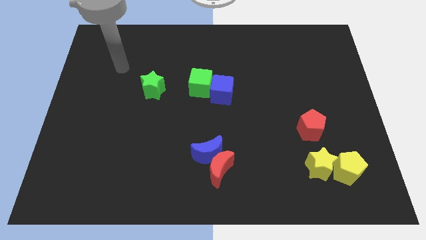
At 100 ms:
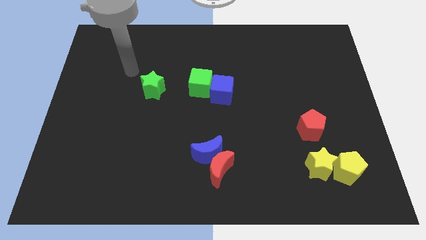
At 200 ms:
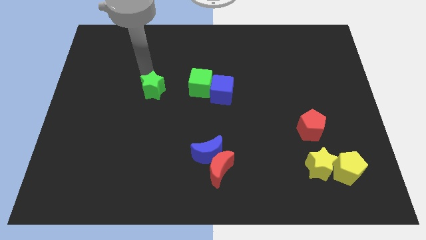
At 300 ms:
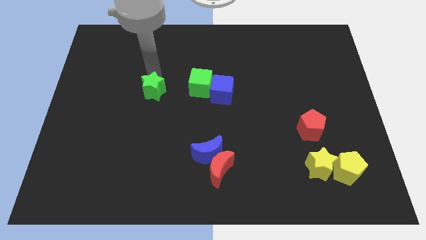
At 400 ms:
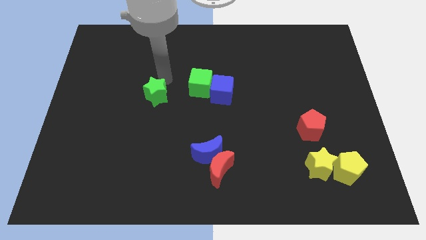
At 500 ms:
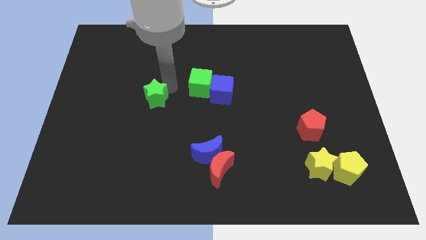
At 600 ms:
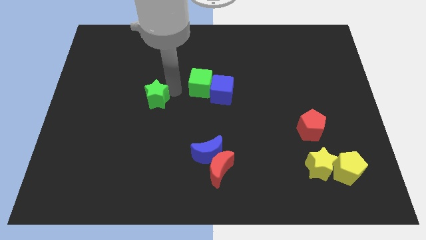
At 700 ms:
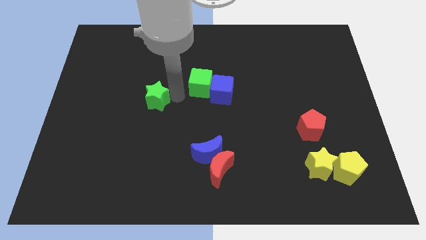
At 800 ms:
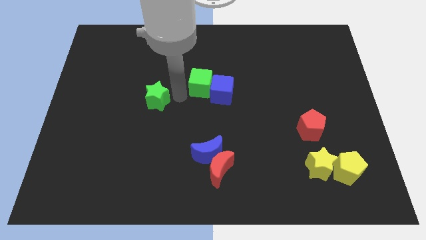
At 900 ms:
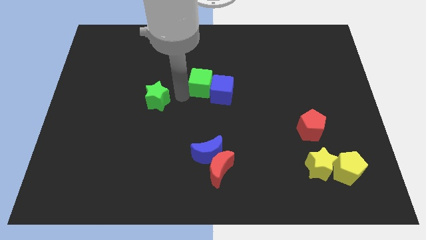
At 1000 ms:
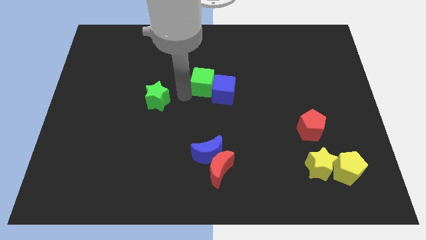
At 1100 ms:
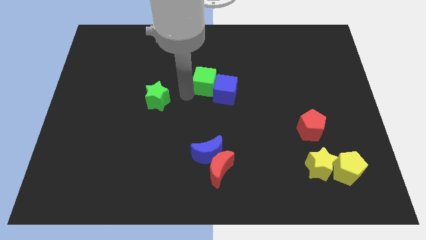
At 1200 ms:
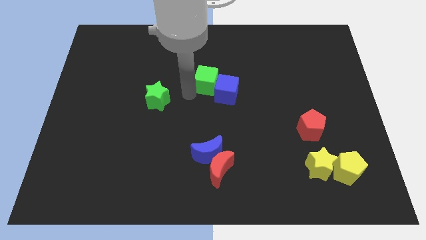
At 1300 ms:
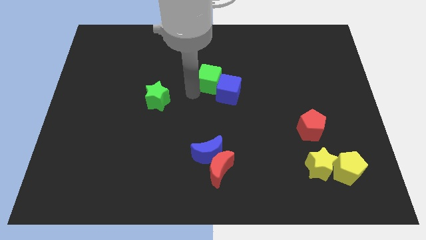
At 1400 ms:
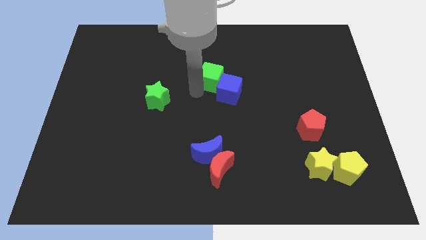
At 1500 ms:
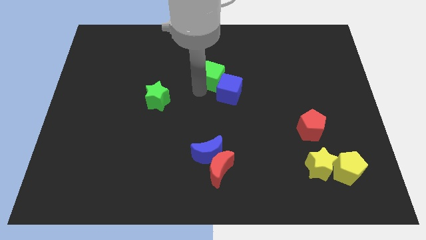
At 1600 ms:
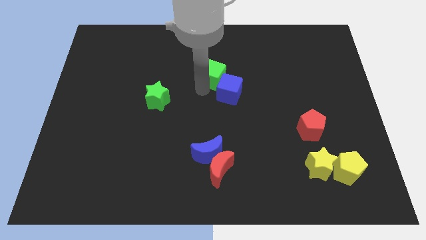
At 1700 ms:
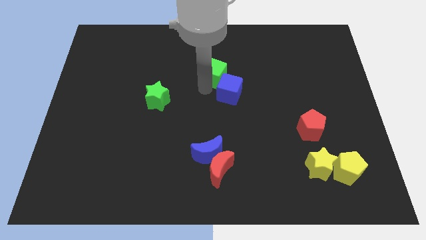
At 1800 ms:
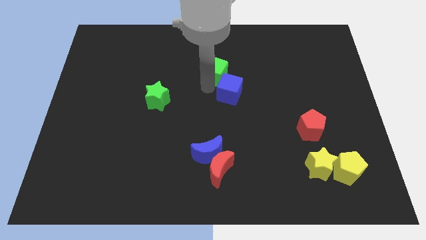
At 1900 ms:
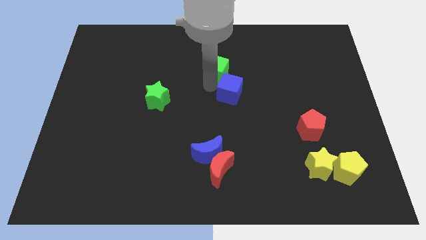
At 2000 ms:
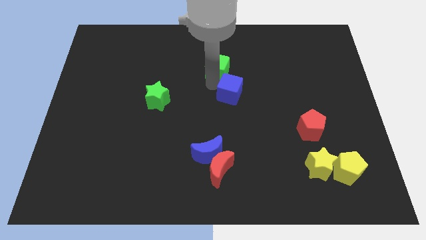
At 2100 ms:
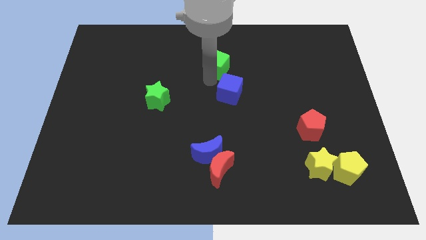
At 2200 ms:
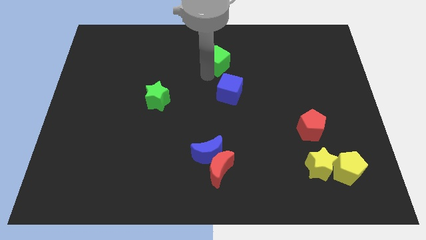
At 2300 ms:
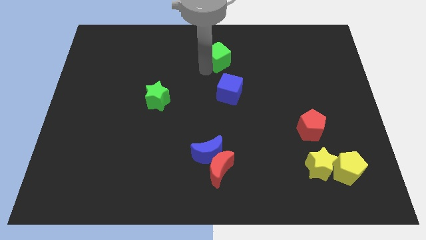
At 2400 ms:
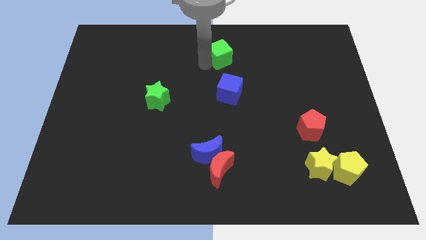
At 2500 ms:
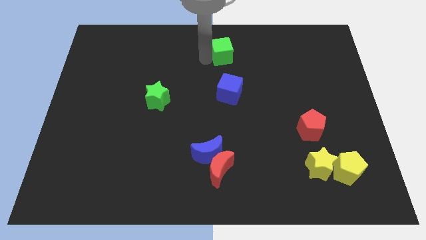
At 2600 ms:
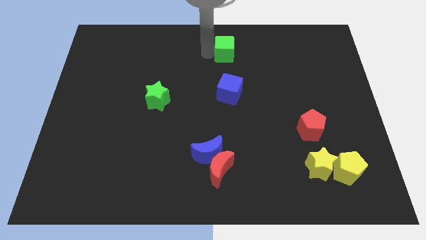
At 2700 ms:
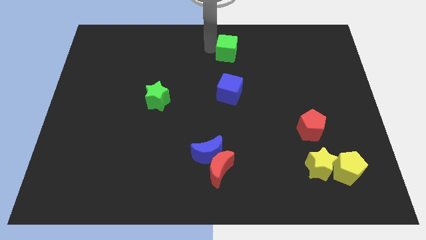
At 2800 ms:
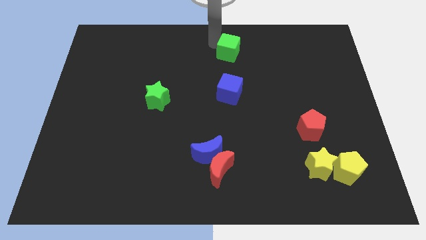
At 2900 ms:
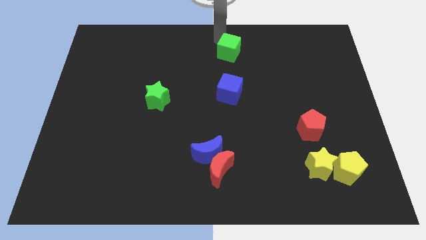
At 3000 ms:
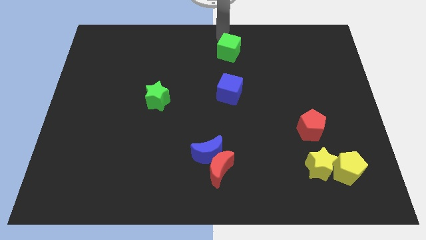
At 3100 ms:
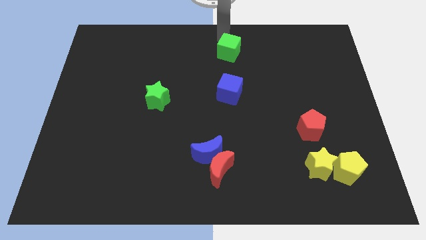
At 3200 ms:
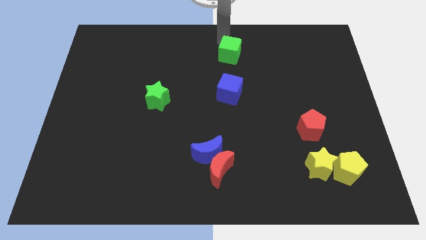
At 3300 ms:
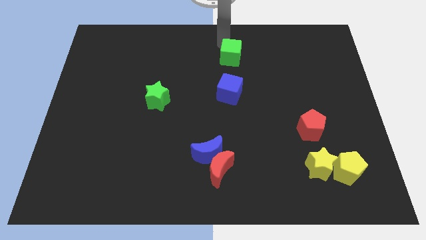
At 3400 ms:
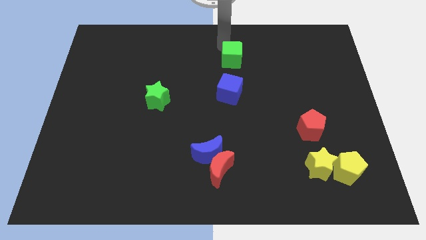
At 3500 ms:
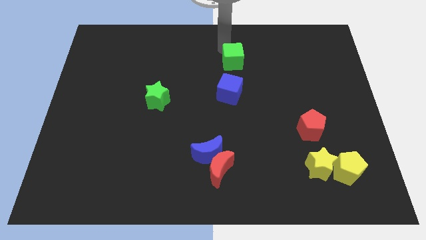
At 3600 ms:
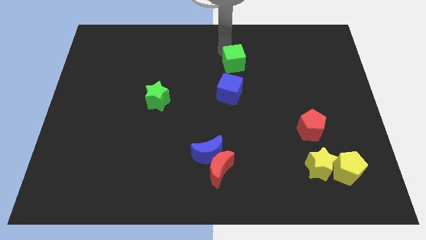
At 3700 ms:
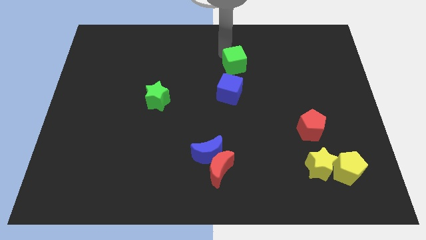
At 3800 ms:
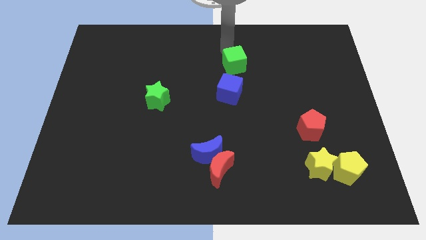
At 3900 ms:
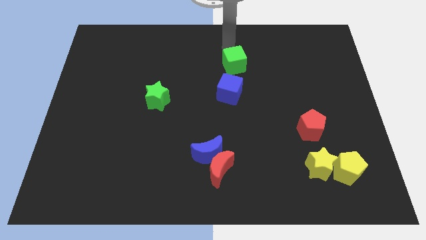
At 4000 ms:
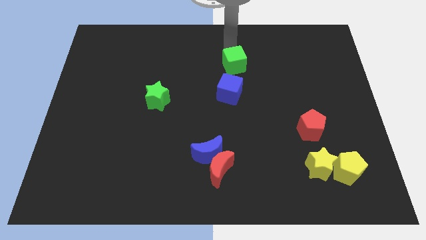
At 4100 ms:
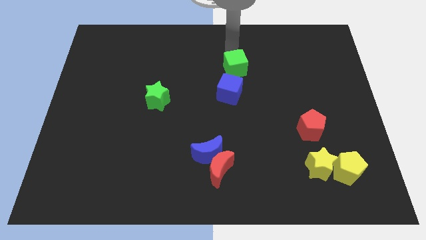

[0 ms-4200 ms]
move the green cube a little bit right

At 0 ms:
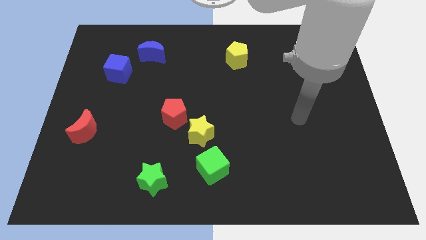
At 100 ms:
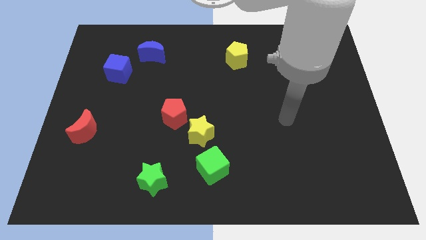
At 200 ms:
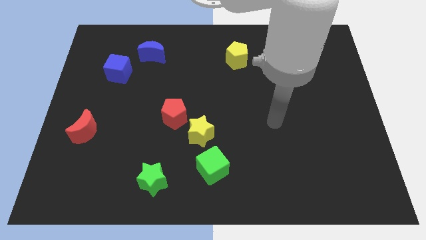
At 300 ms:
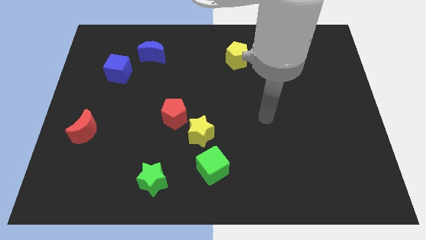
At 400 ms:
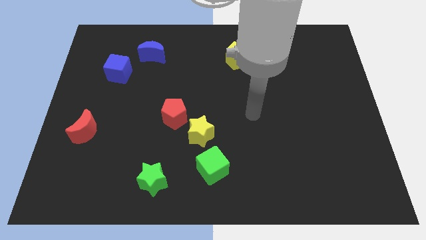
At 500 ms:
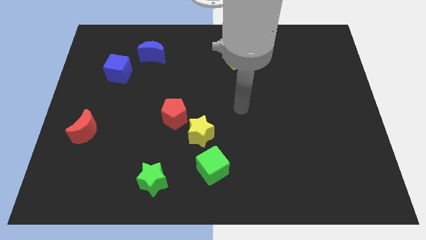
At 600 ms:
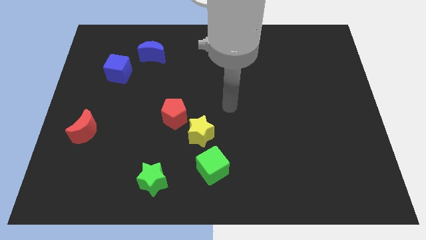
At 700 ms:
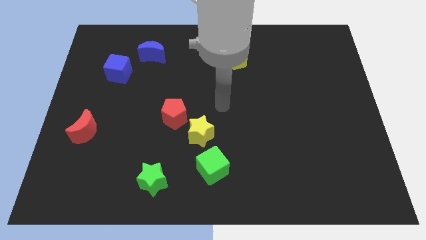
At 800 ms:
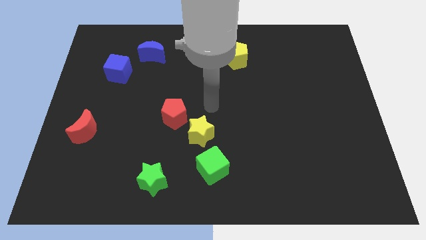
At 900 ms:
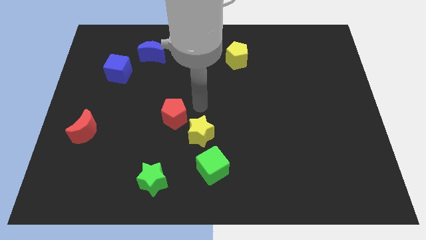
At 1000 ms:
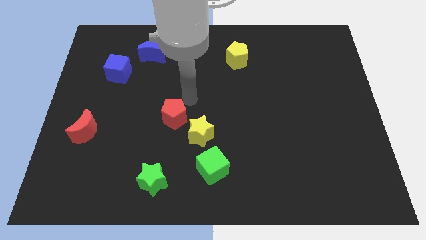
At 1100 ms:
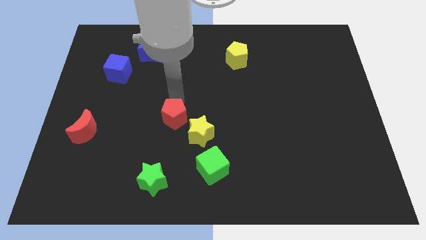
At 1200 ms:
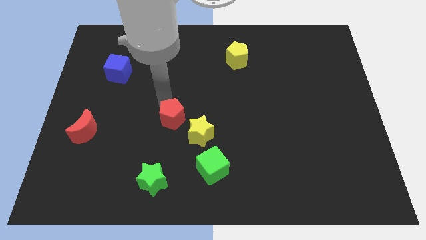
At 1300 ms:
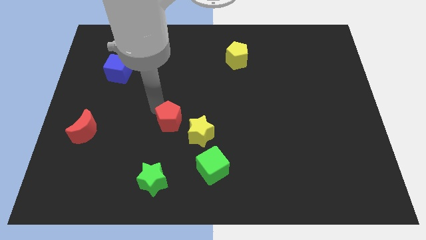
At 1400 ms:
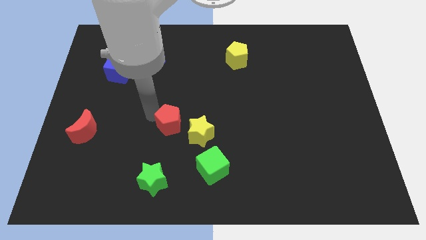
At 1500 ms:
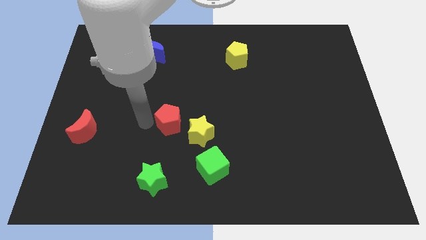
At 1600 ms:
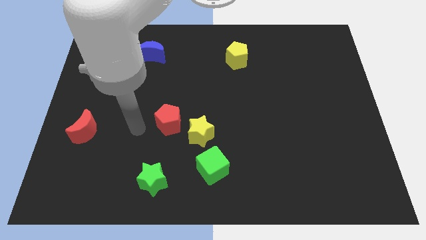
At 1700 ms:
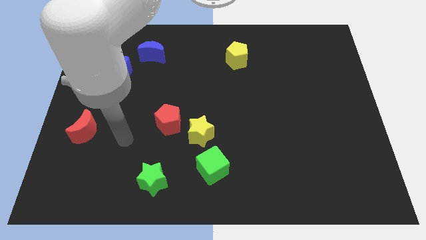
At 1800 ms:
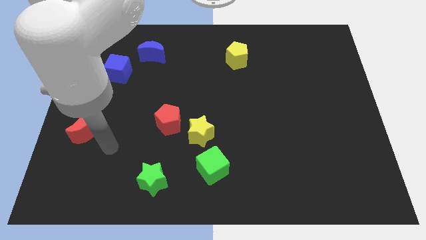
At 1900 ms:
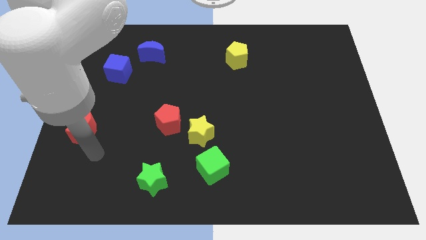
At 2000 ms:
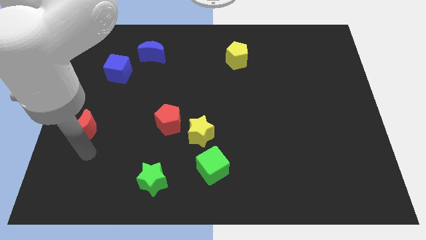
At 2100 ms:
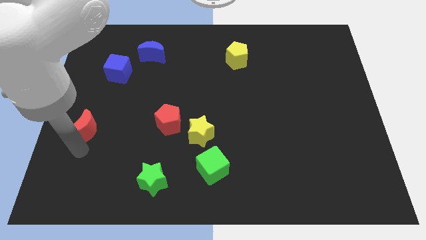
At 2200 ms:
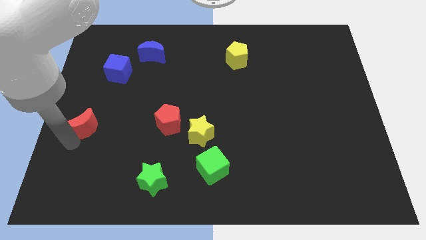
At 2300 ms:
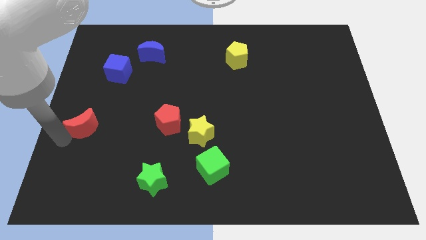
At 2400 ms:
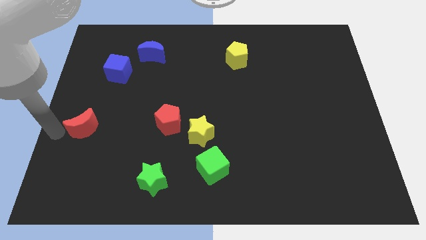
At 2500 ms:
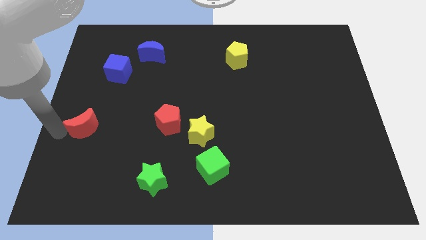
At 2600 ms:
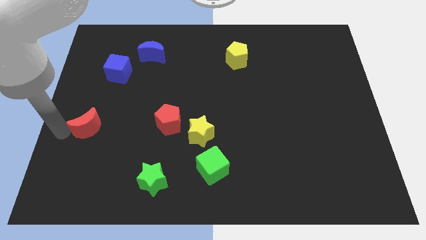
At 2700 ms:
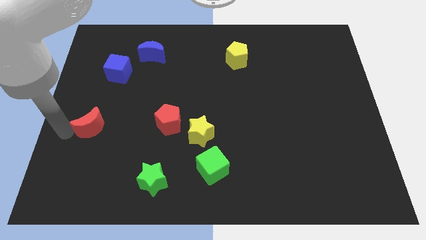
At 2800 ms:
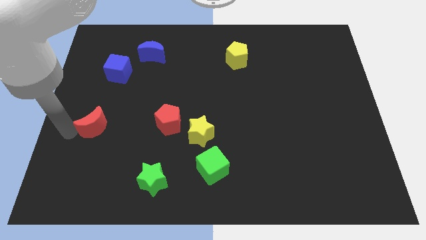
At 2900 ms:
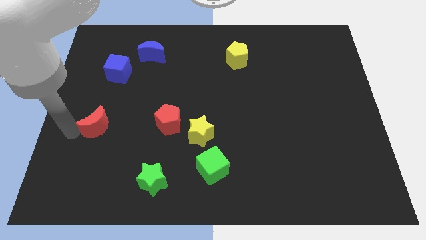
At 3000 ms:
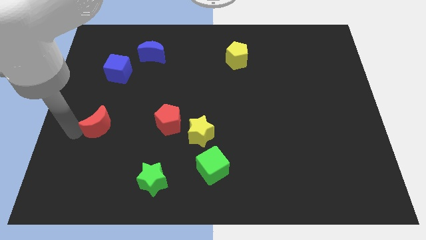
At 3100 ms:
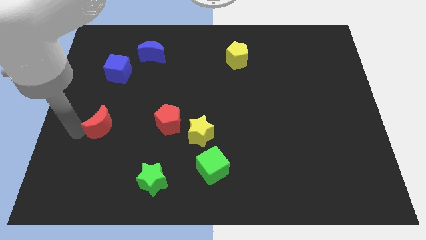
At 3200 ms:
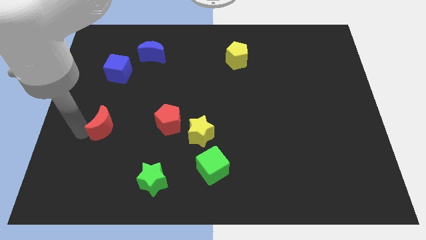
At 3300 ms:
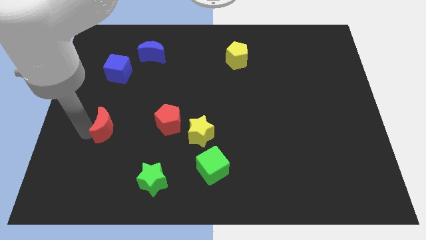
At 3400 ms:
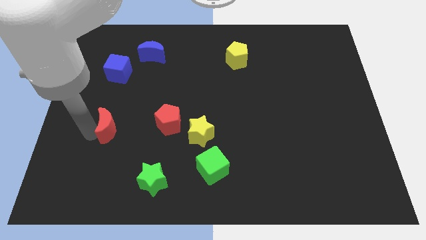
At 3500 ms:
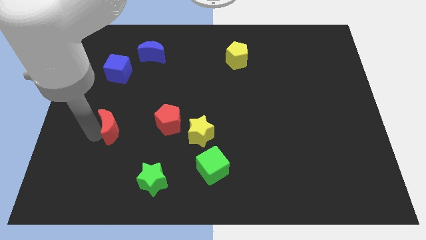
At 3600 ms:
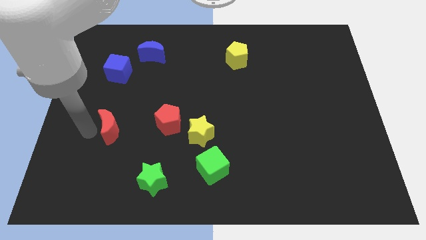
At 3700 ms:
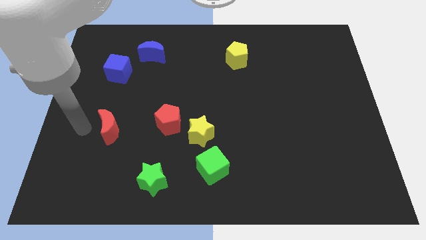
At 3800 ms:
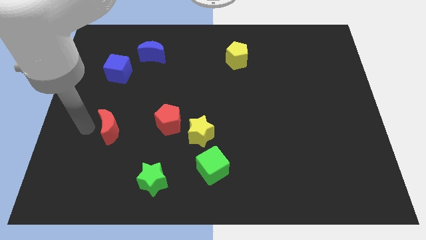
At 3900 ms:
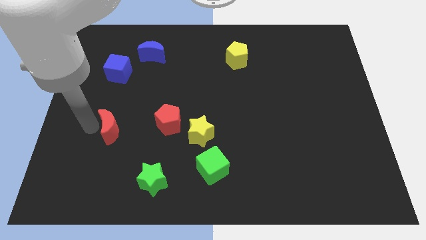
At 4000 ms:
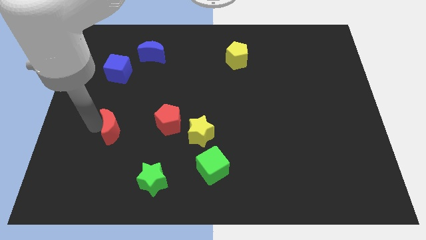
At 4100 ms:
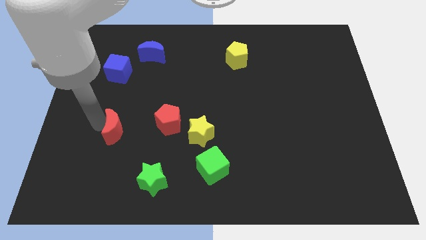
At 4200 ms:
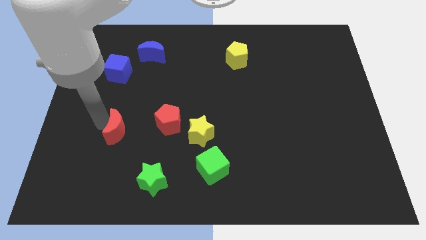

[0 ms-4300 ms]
push the red moon to the right somewhat
